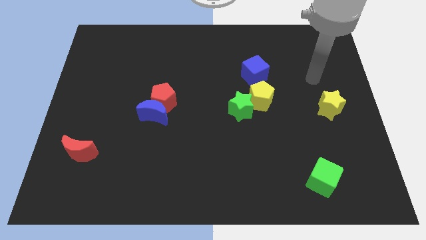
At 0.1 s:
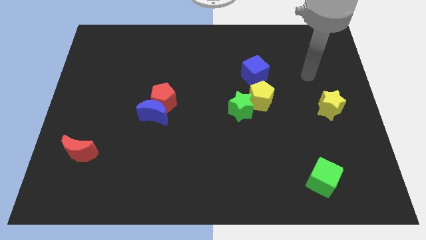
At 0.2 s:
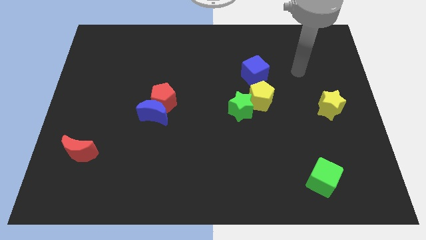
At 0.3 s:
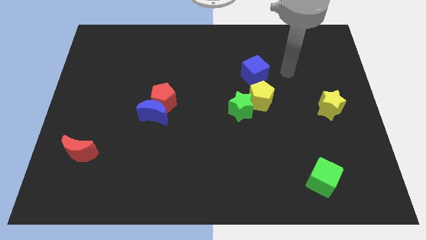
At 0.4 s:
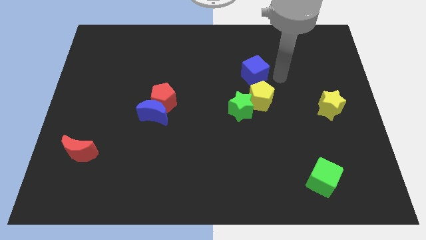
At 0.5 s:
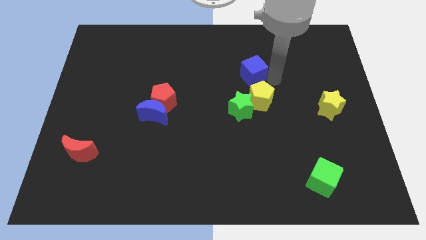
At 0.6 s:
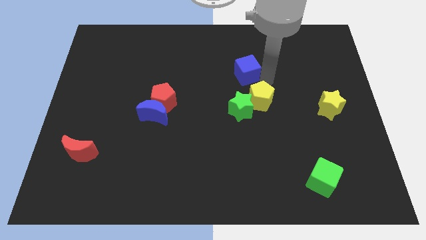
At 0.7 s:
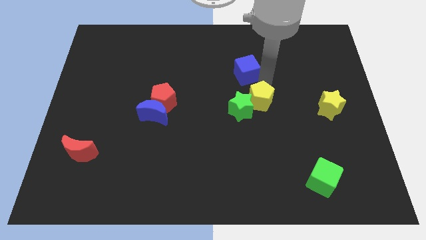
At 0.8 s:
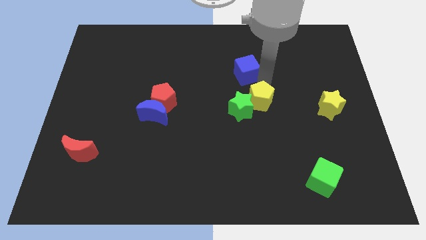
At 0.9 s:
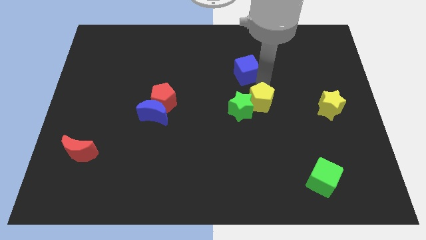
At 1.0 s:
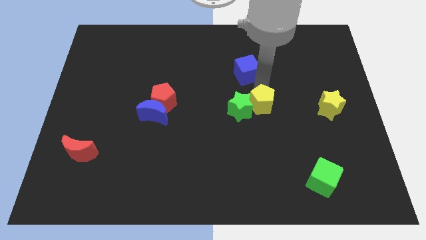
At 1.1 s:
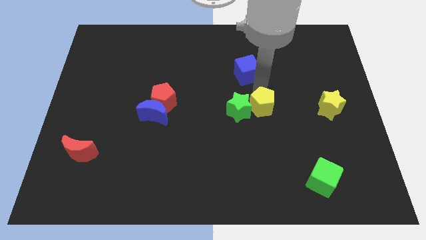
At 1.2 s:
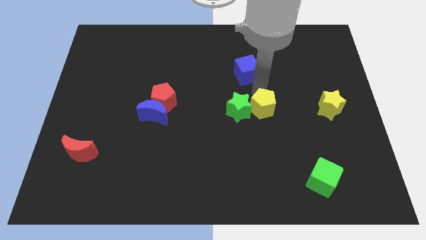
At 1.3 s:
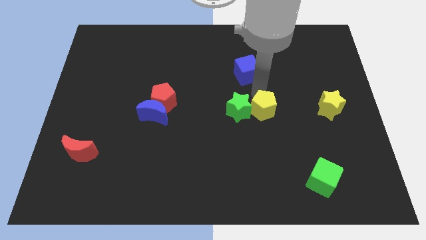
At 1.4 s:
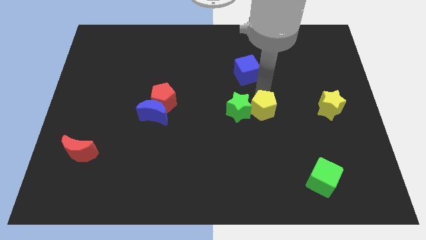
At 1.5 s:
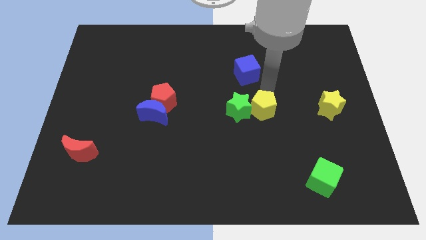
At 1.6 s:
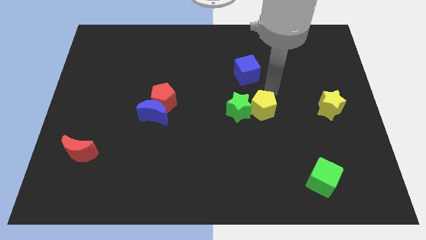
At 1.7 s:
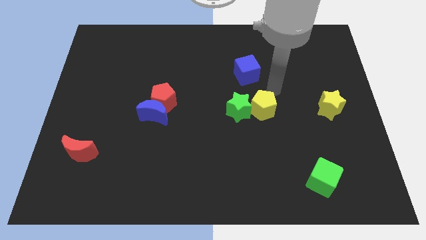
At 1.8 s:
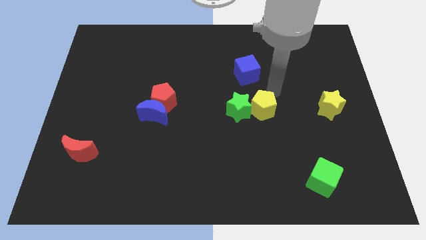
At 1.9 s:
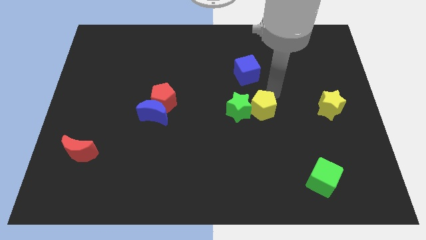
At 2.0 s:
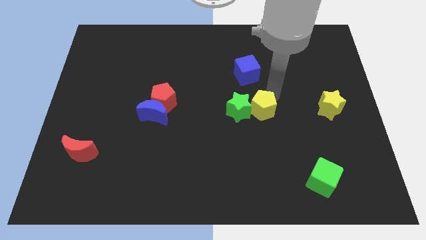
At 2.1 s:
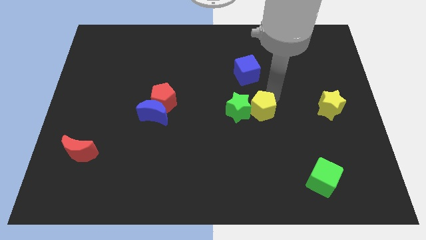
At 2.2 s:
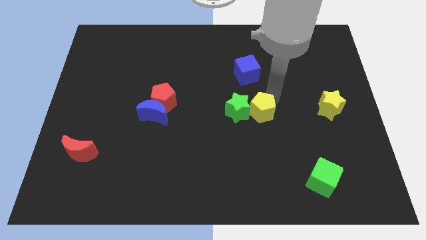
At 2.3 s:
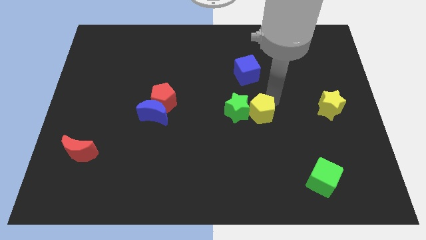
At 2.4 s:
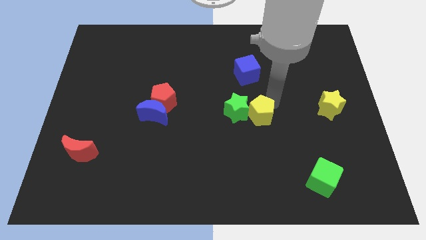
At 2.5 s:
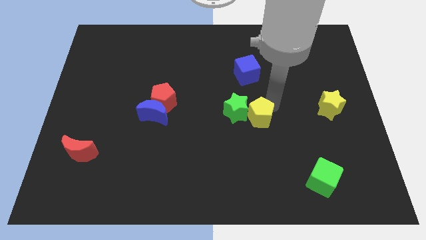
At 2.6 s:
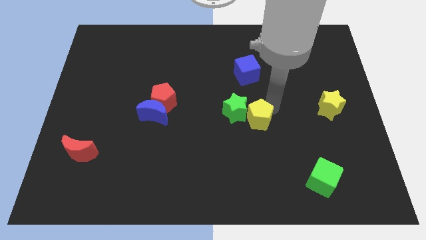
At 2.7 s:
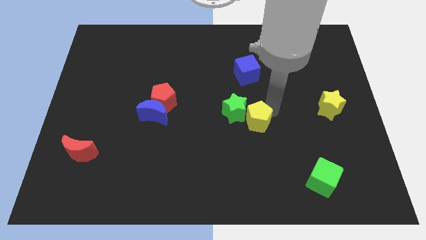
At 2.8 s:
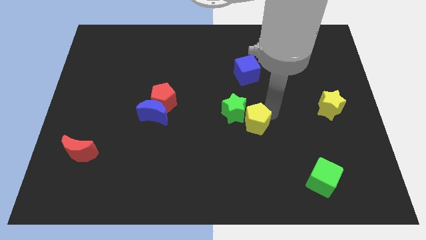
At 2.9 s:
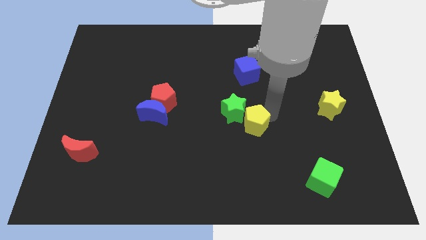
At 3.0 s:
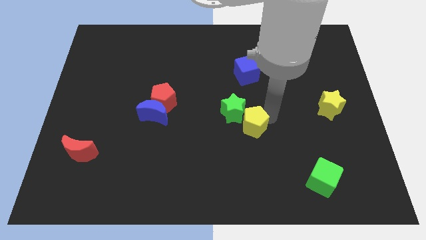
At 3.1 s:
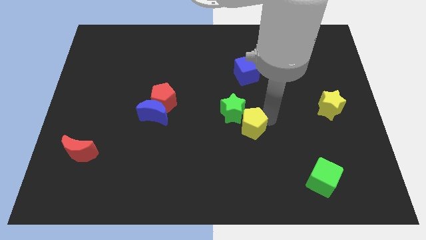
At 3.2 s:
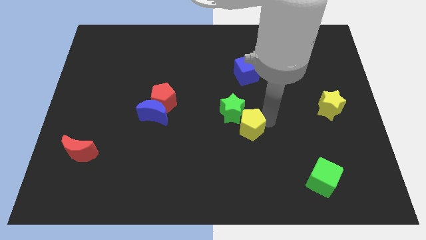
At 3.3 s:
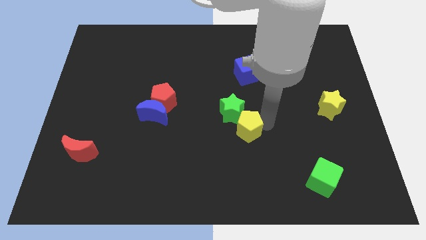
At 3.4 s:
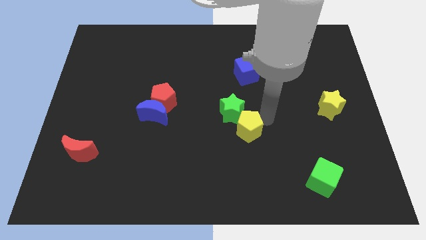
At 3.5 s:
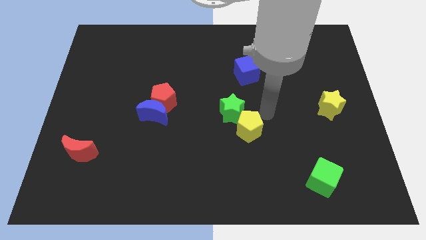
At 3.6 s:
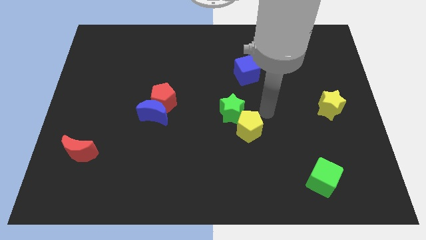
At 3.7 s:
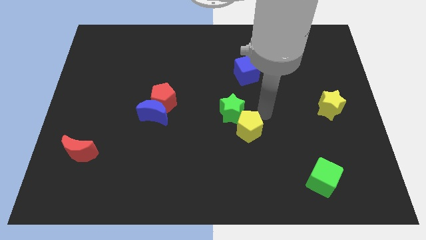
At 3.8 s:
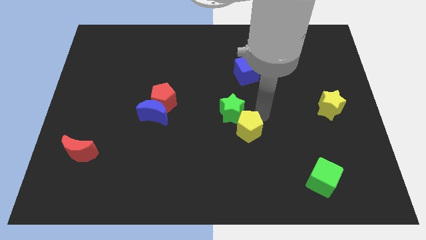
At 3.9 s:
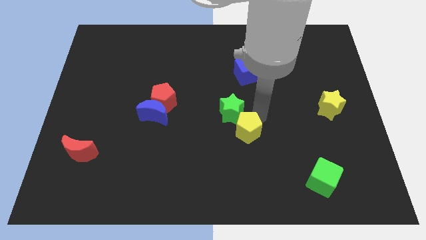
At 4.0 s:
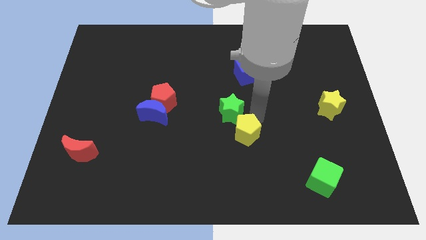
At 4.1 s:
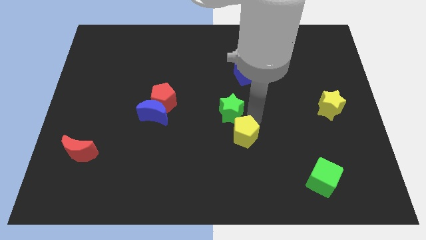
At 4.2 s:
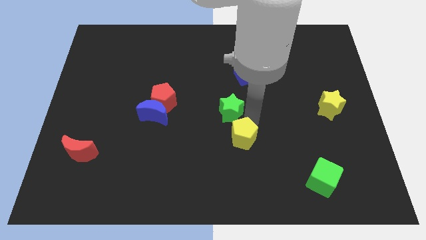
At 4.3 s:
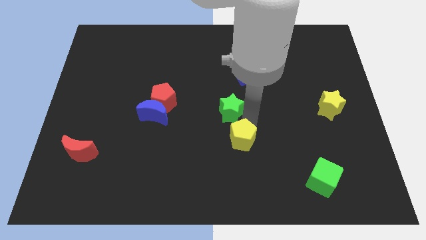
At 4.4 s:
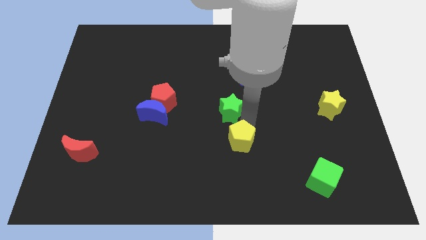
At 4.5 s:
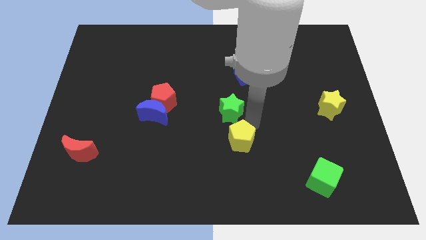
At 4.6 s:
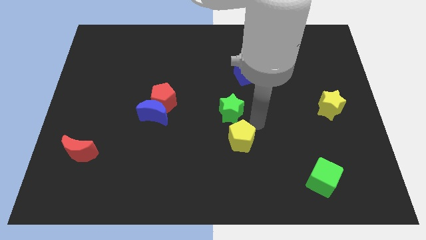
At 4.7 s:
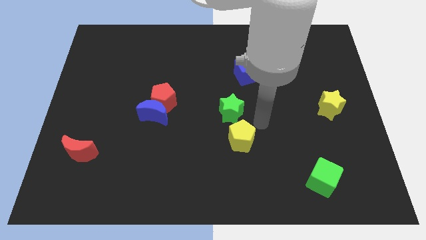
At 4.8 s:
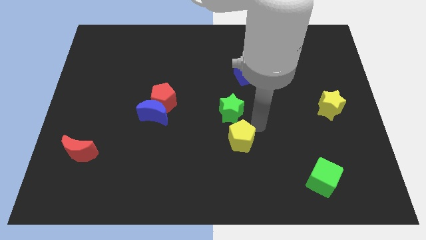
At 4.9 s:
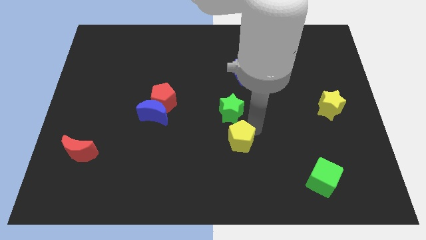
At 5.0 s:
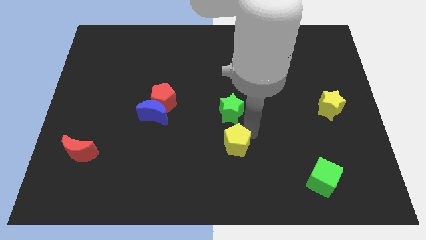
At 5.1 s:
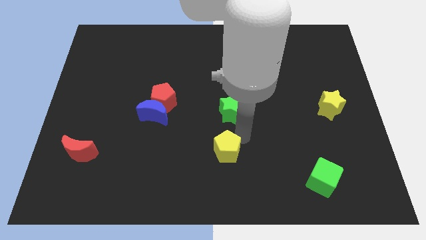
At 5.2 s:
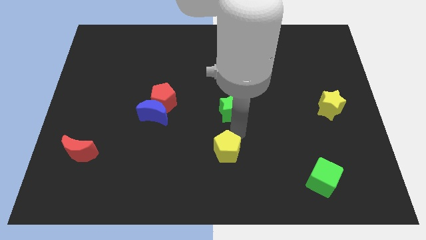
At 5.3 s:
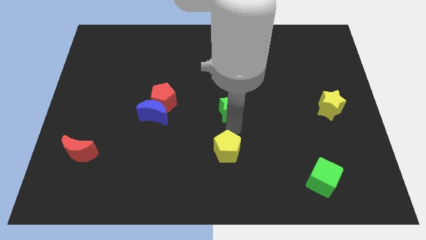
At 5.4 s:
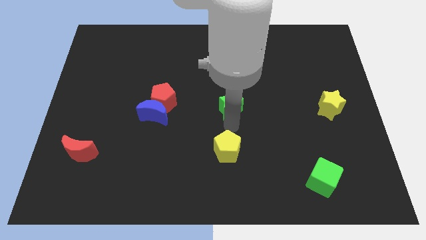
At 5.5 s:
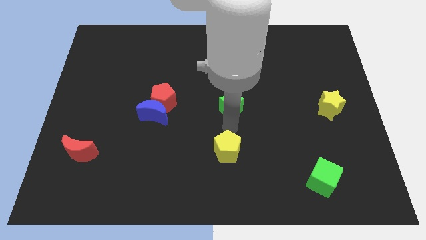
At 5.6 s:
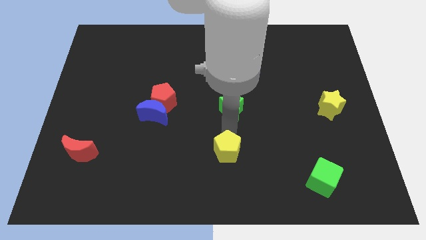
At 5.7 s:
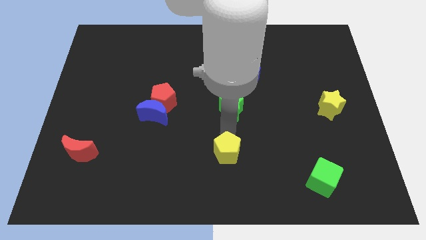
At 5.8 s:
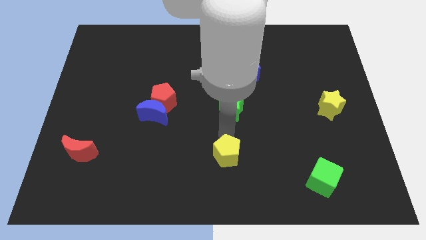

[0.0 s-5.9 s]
push the yellow pentagon to the bottom

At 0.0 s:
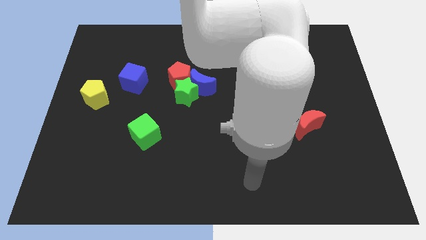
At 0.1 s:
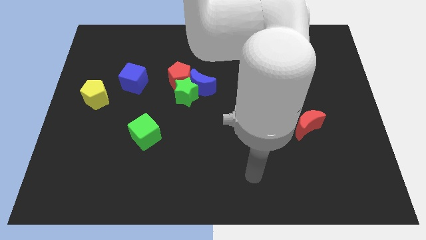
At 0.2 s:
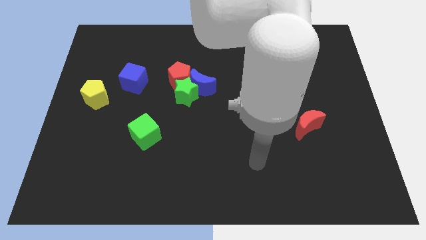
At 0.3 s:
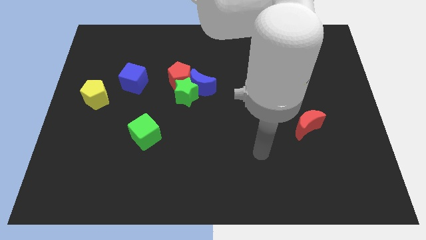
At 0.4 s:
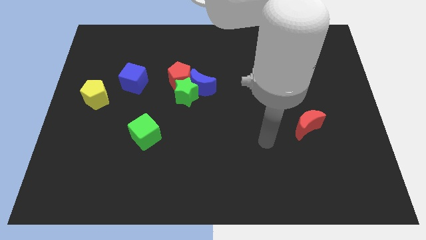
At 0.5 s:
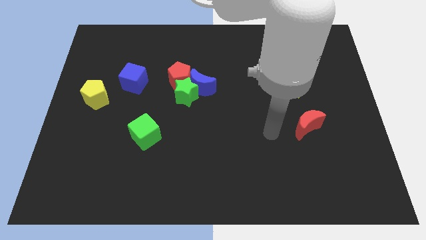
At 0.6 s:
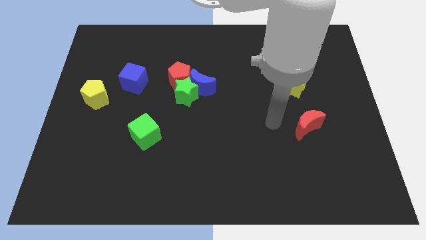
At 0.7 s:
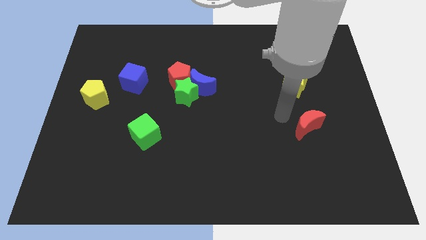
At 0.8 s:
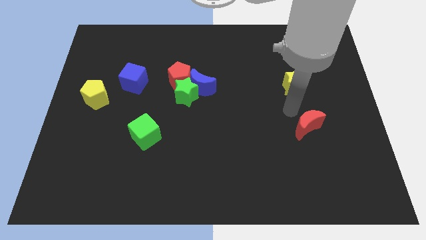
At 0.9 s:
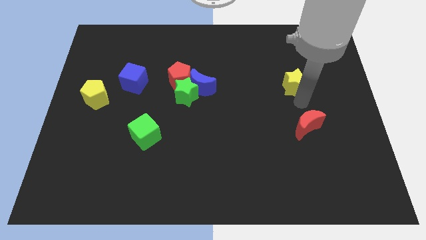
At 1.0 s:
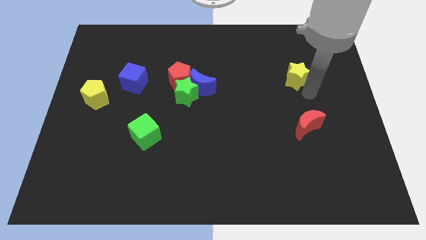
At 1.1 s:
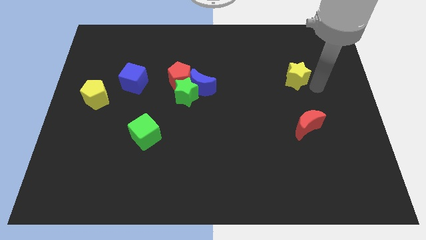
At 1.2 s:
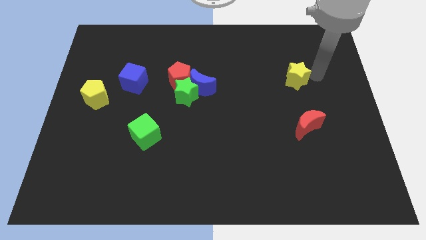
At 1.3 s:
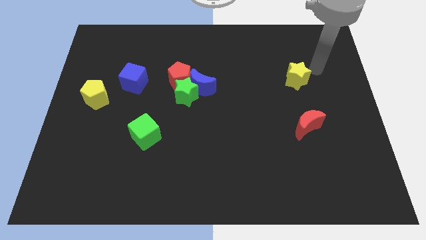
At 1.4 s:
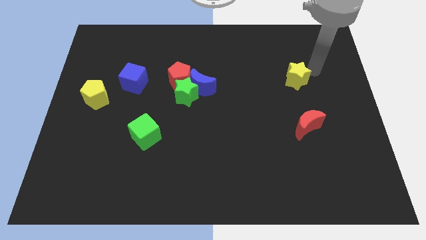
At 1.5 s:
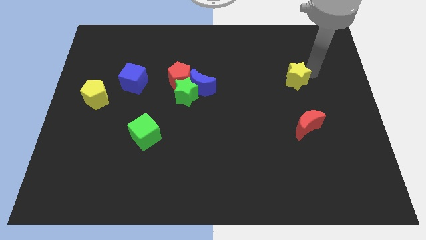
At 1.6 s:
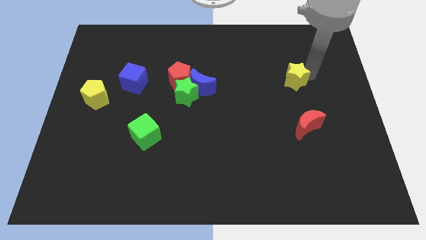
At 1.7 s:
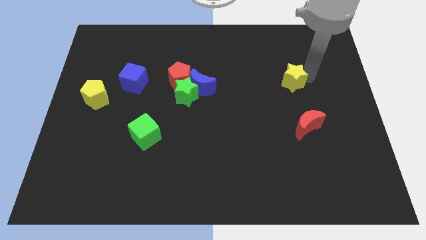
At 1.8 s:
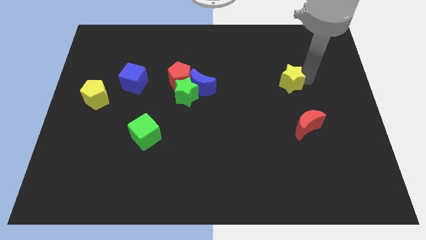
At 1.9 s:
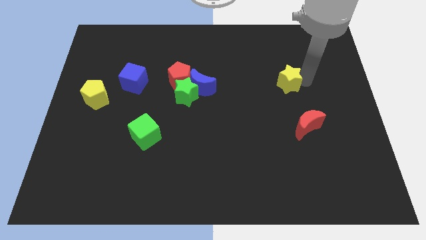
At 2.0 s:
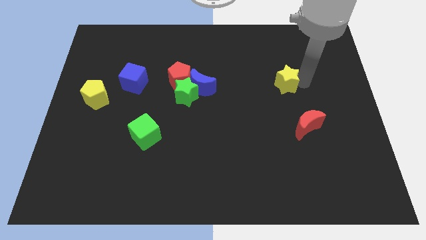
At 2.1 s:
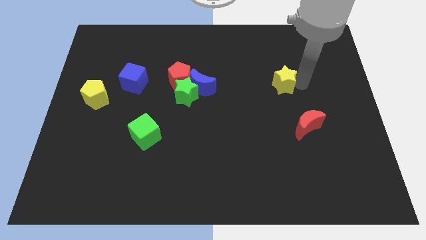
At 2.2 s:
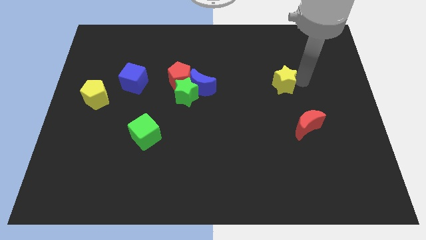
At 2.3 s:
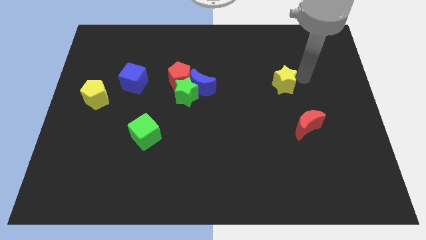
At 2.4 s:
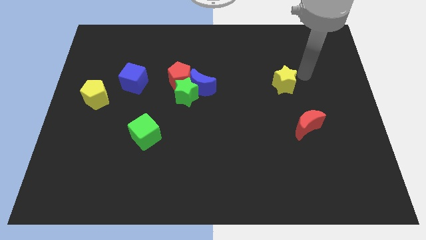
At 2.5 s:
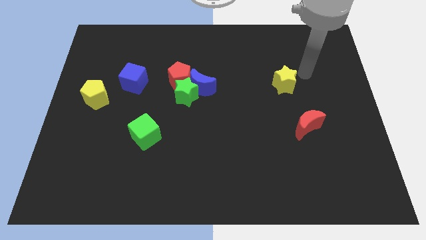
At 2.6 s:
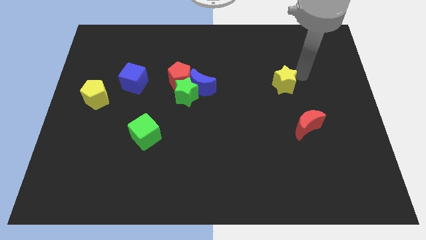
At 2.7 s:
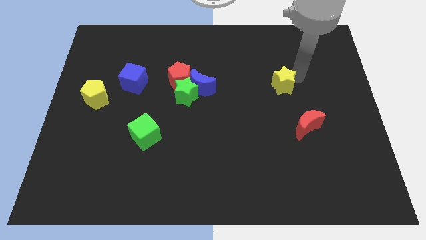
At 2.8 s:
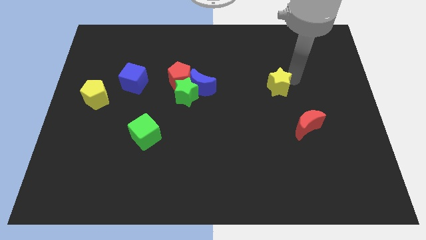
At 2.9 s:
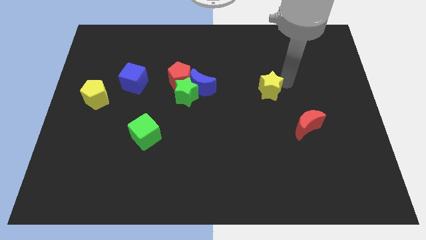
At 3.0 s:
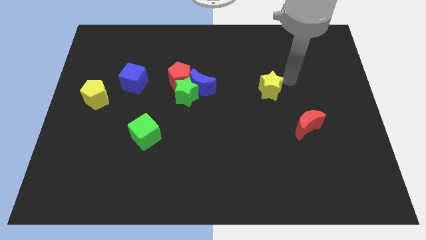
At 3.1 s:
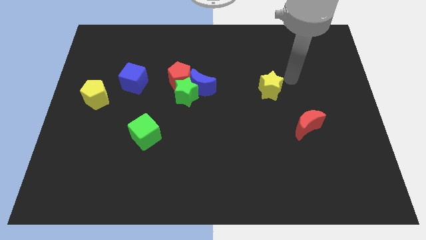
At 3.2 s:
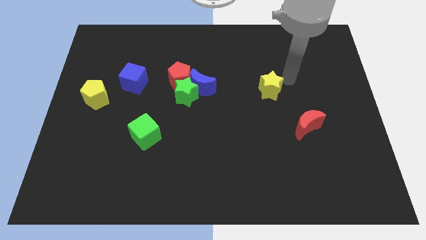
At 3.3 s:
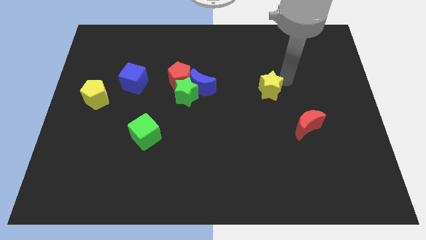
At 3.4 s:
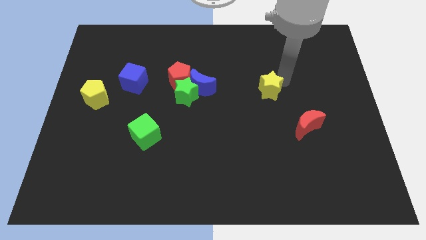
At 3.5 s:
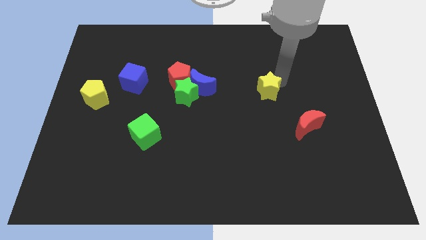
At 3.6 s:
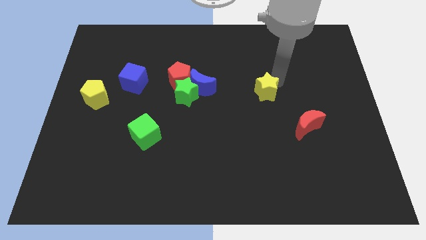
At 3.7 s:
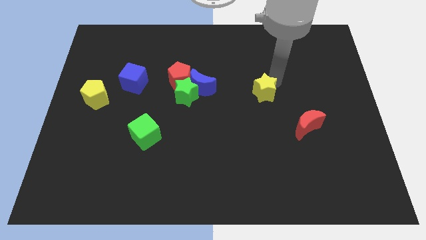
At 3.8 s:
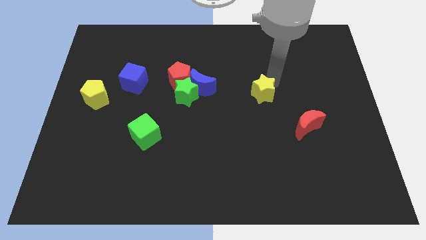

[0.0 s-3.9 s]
slide the yellow star to the center
